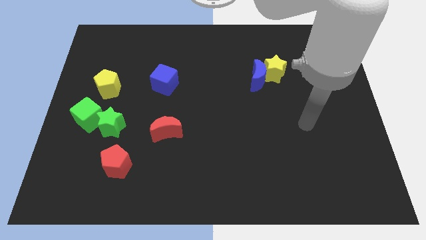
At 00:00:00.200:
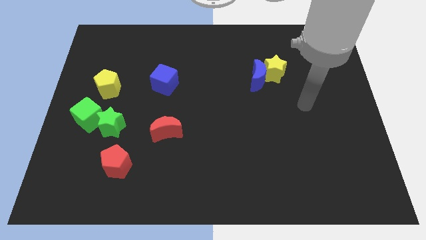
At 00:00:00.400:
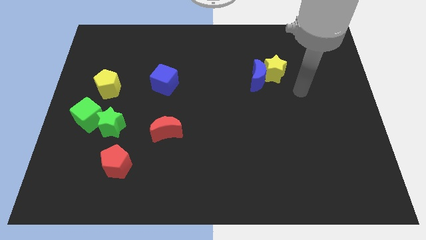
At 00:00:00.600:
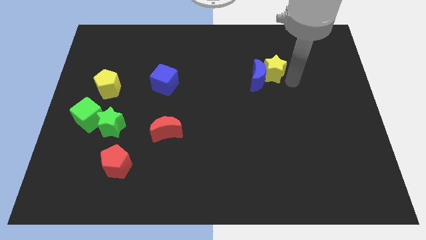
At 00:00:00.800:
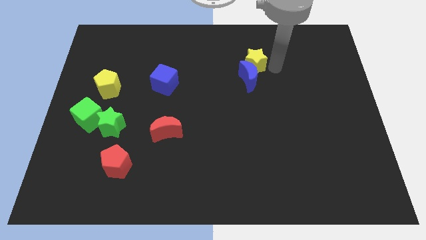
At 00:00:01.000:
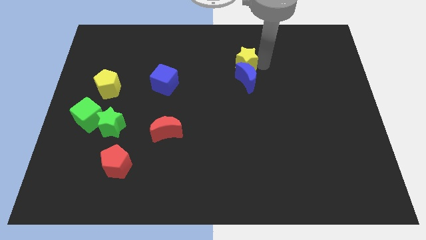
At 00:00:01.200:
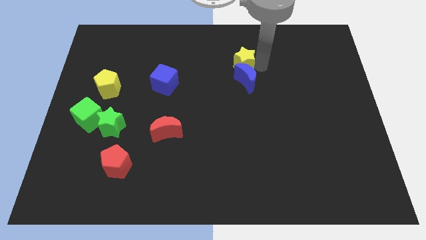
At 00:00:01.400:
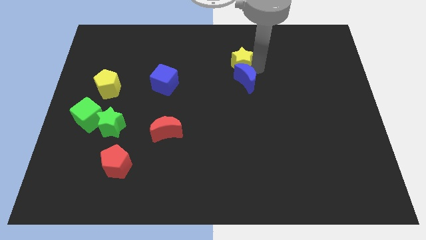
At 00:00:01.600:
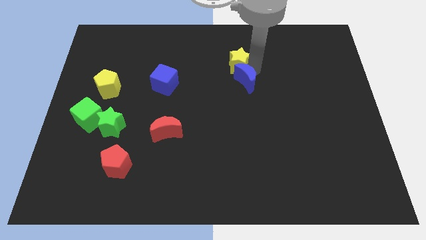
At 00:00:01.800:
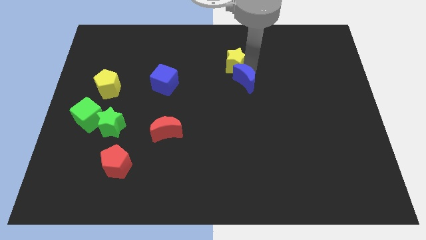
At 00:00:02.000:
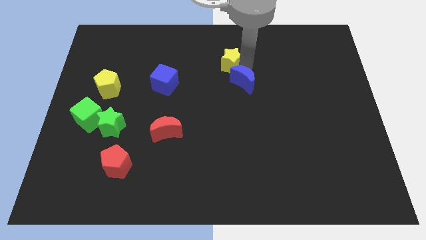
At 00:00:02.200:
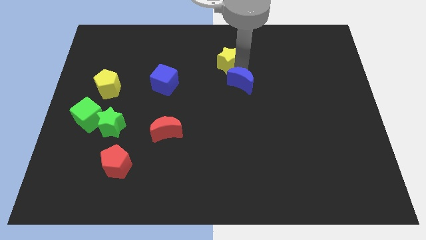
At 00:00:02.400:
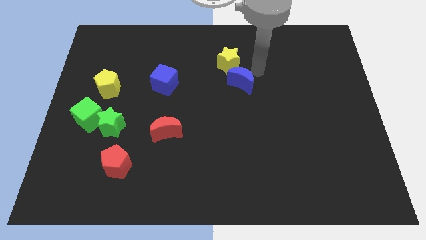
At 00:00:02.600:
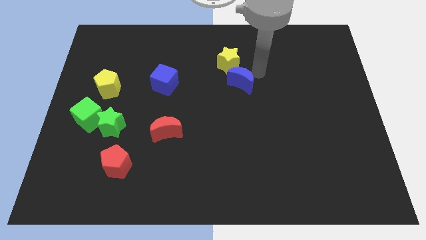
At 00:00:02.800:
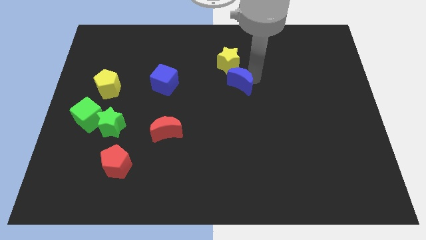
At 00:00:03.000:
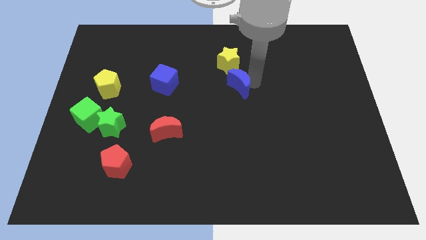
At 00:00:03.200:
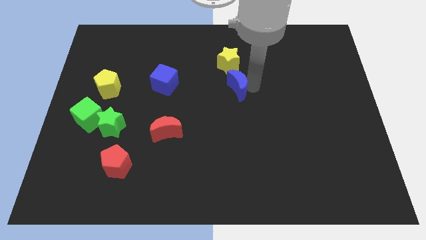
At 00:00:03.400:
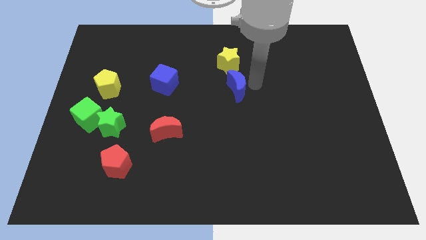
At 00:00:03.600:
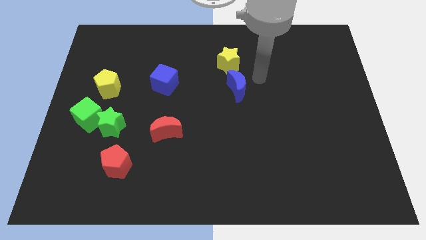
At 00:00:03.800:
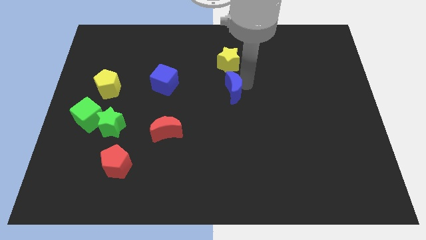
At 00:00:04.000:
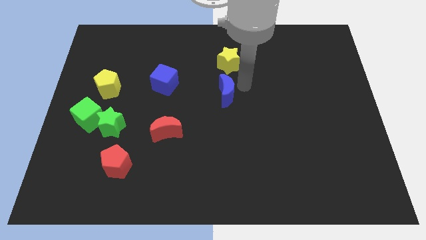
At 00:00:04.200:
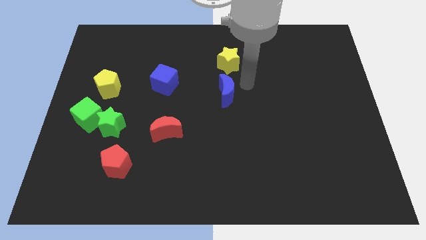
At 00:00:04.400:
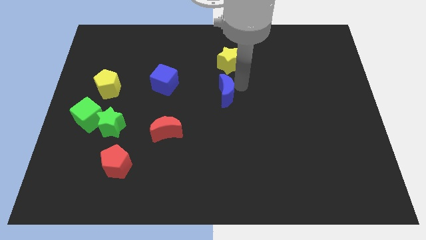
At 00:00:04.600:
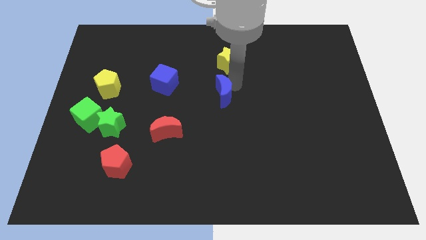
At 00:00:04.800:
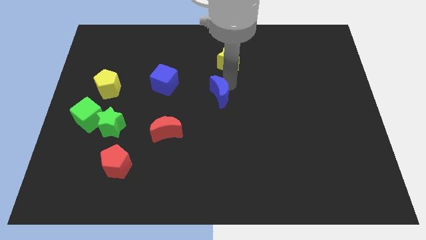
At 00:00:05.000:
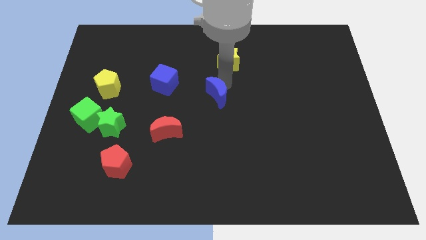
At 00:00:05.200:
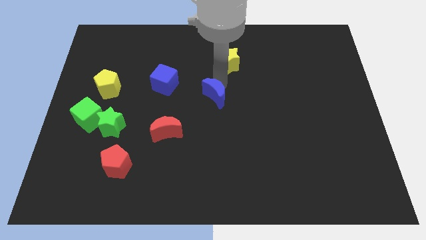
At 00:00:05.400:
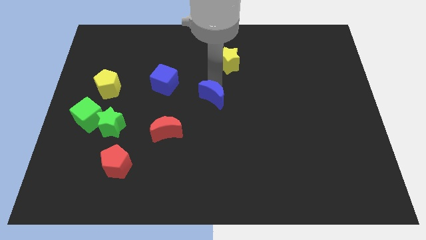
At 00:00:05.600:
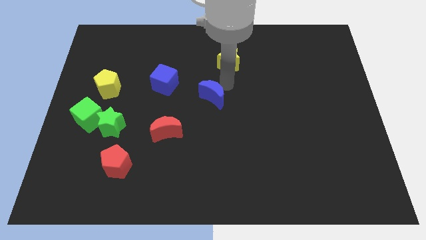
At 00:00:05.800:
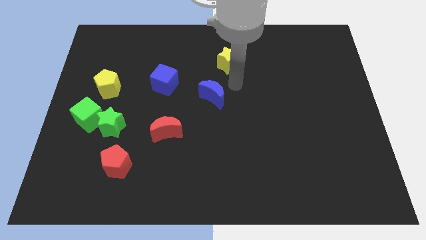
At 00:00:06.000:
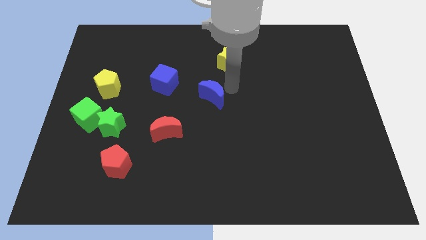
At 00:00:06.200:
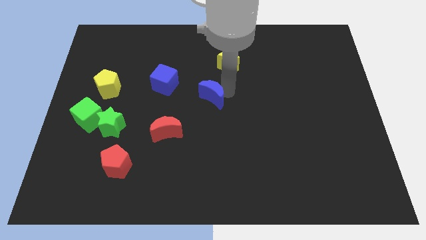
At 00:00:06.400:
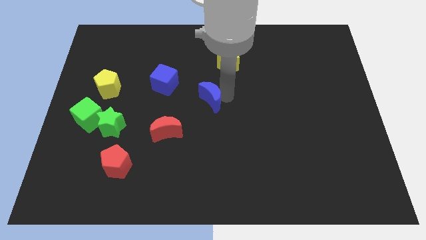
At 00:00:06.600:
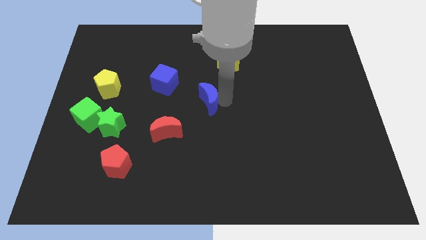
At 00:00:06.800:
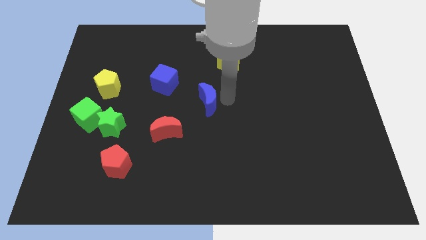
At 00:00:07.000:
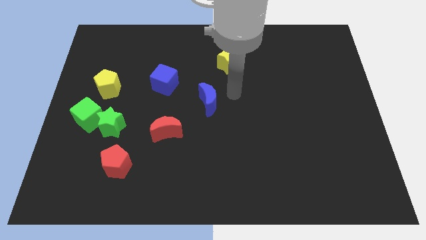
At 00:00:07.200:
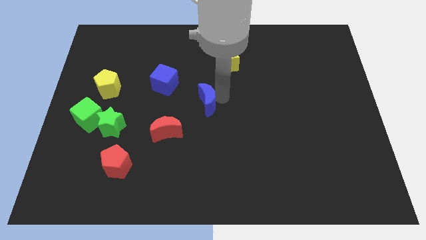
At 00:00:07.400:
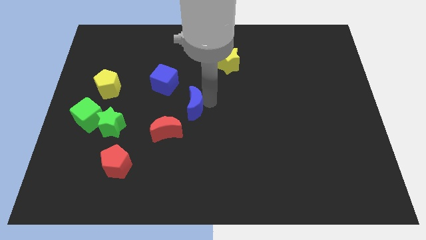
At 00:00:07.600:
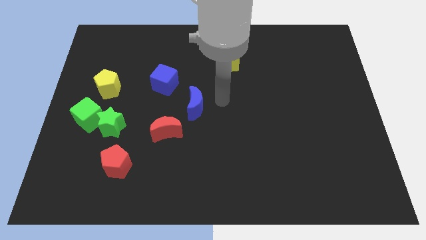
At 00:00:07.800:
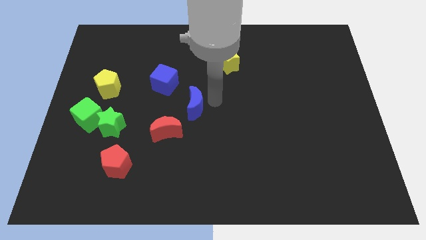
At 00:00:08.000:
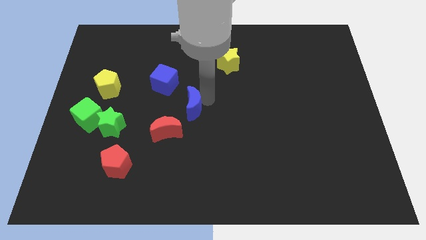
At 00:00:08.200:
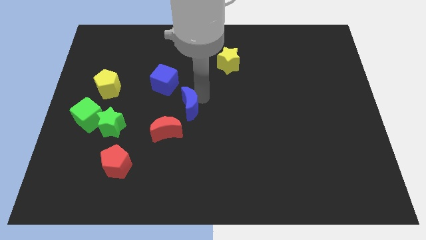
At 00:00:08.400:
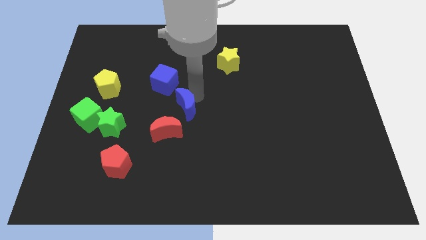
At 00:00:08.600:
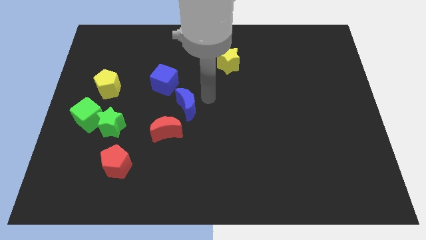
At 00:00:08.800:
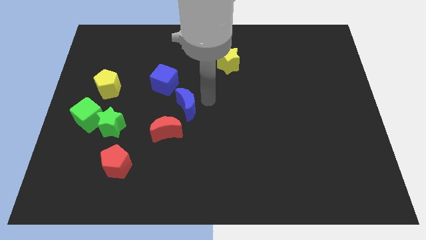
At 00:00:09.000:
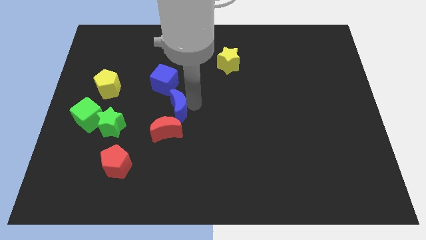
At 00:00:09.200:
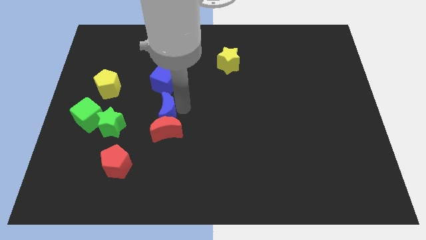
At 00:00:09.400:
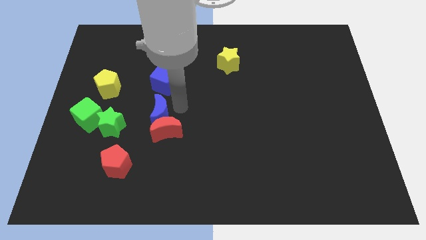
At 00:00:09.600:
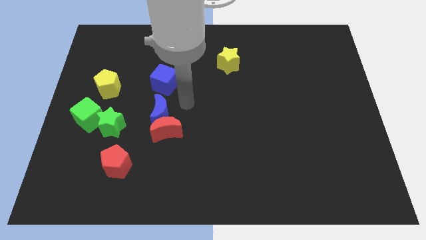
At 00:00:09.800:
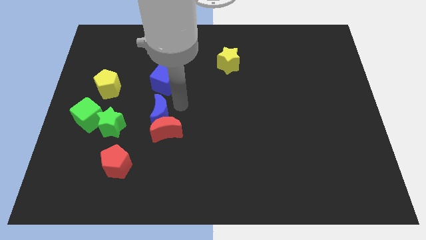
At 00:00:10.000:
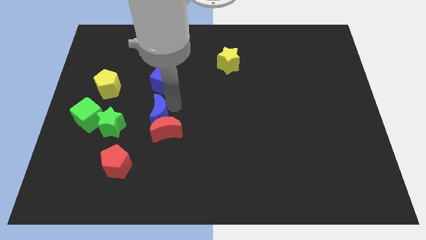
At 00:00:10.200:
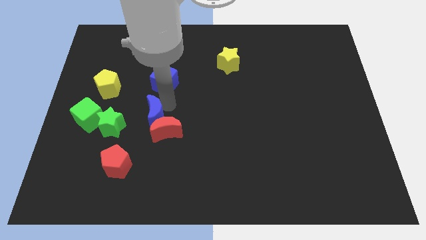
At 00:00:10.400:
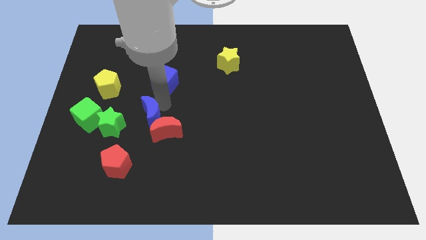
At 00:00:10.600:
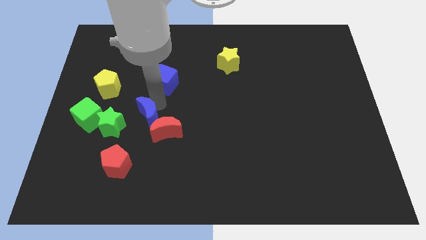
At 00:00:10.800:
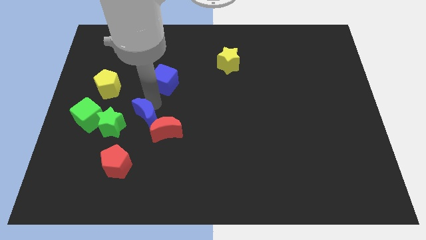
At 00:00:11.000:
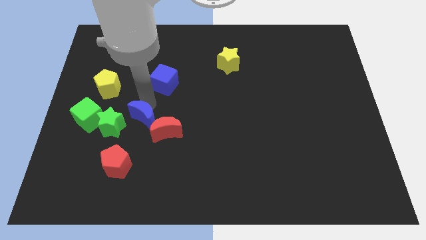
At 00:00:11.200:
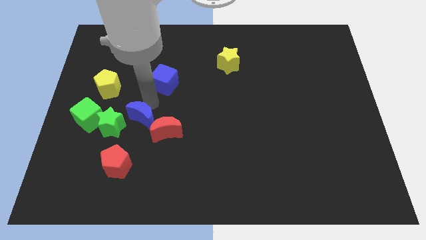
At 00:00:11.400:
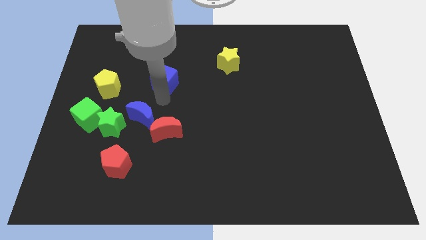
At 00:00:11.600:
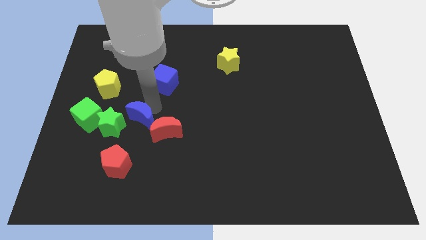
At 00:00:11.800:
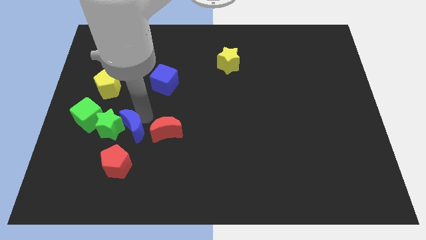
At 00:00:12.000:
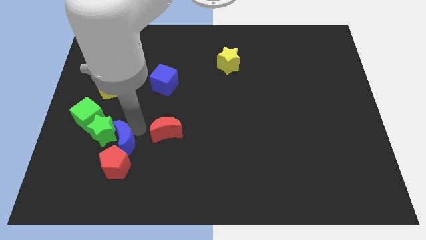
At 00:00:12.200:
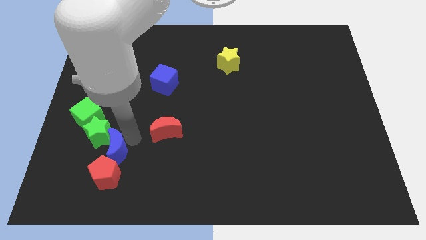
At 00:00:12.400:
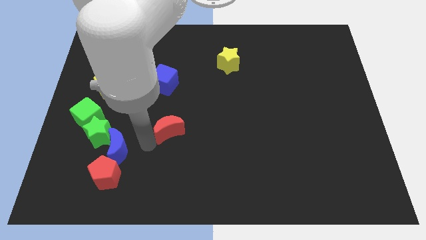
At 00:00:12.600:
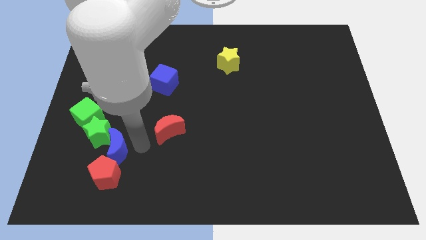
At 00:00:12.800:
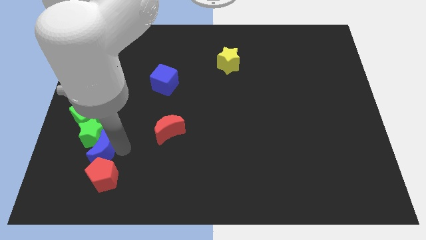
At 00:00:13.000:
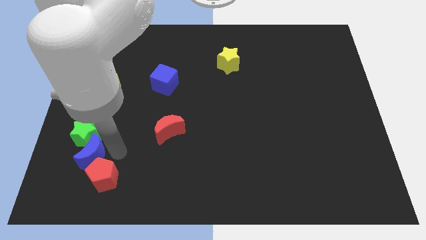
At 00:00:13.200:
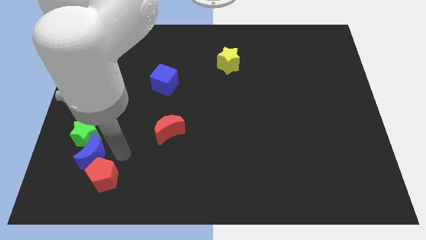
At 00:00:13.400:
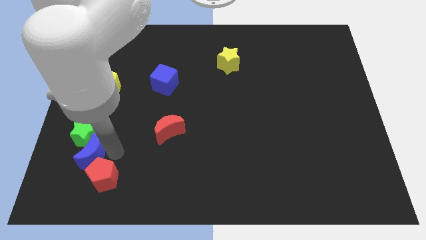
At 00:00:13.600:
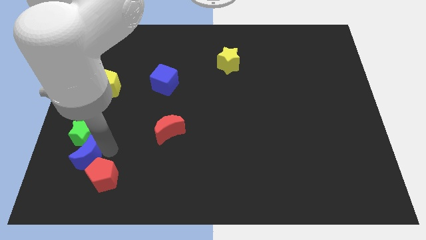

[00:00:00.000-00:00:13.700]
push the blue moon to the bottom left side of the green star

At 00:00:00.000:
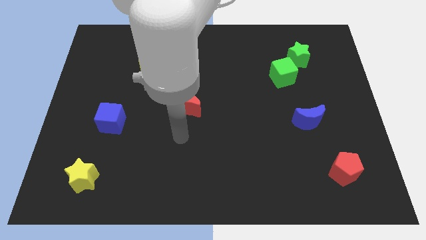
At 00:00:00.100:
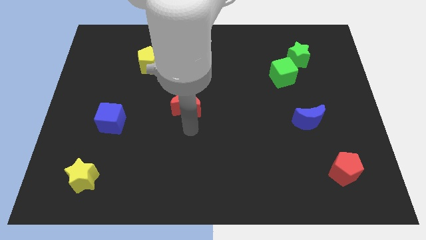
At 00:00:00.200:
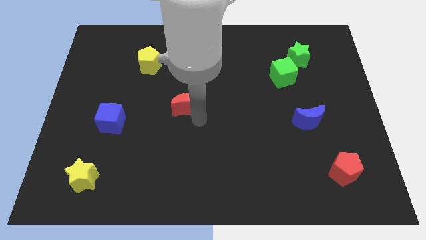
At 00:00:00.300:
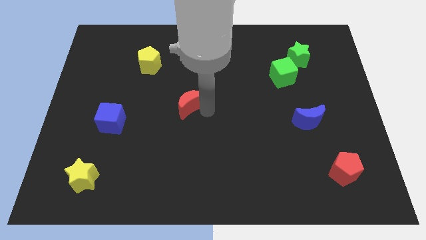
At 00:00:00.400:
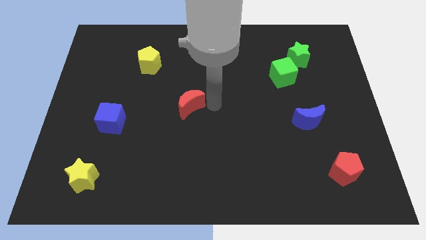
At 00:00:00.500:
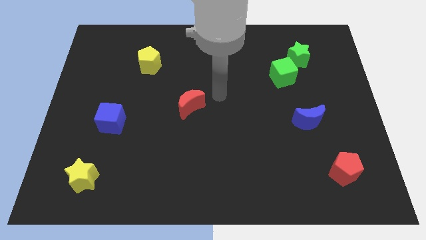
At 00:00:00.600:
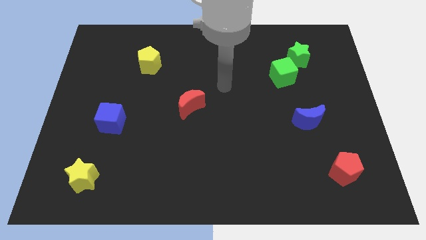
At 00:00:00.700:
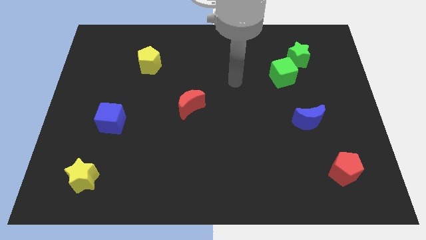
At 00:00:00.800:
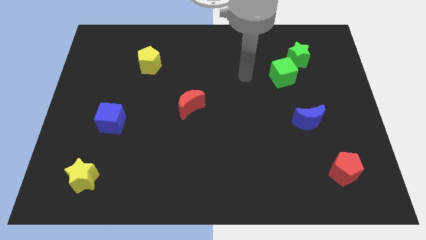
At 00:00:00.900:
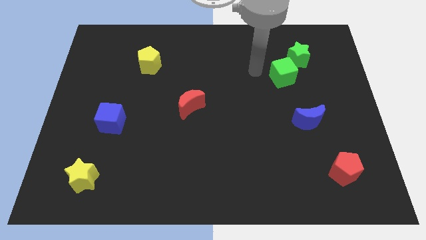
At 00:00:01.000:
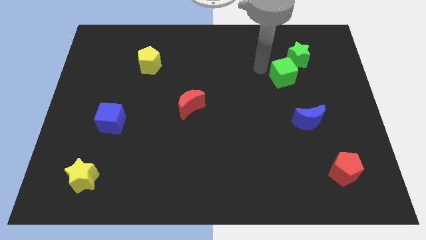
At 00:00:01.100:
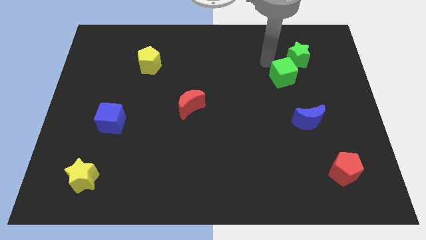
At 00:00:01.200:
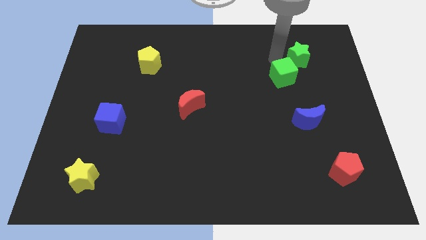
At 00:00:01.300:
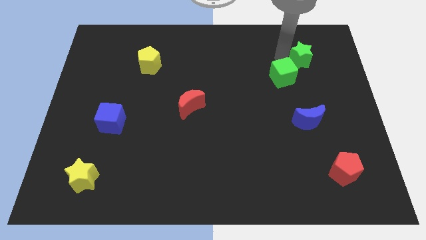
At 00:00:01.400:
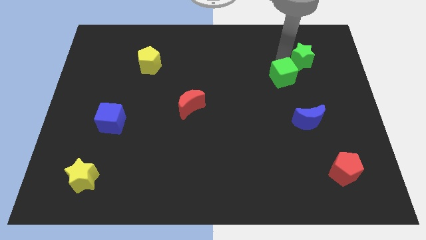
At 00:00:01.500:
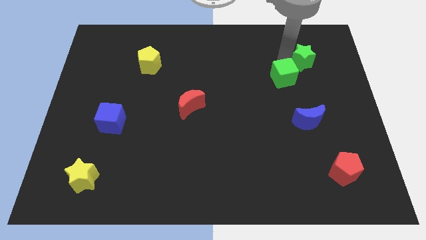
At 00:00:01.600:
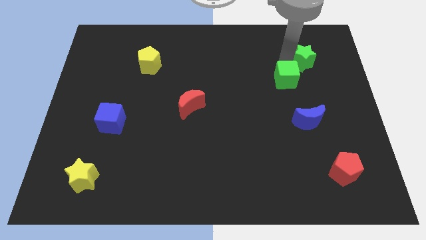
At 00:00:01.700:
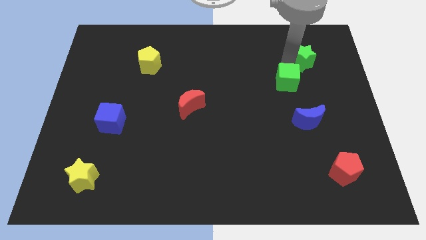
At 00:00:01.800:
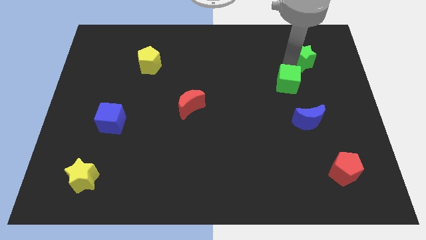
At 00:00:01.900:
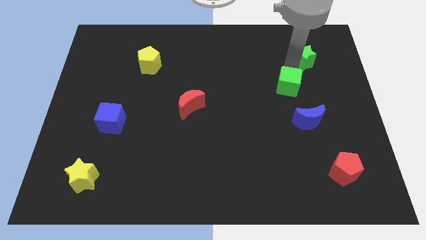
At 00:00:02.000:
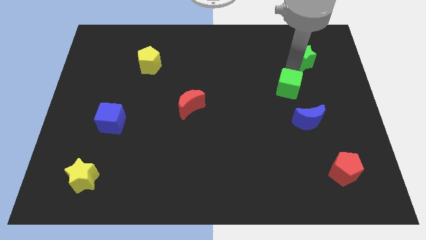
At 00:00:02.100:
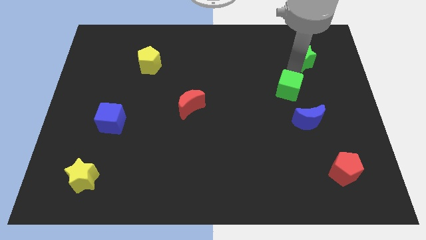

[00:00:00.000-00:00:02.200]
slide the green cube to the top left of the blue moon
